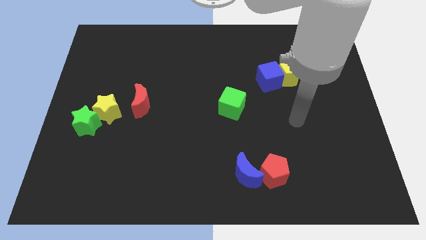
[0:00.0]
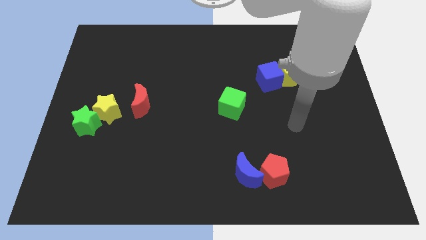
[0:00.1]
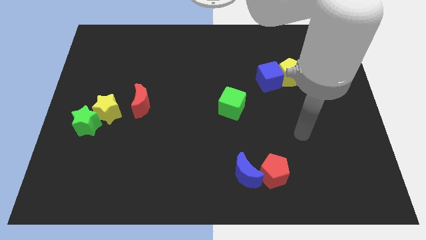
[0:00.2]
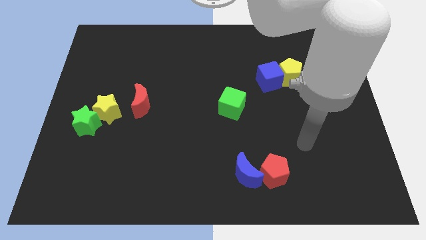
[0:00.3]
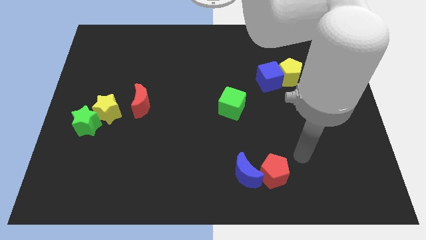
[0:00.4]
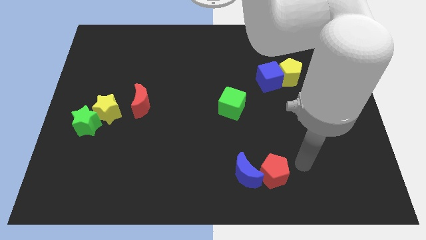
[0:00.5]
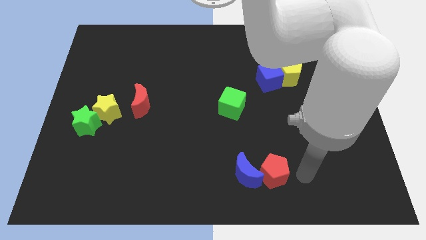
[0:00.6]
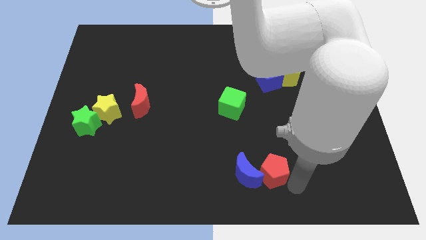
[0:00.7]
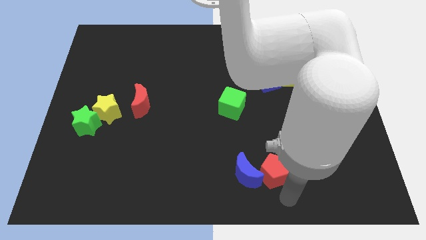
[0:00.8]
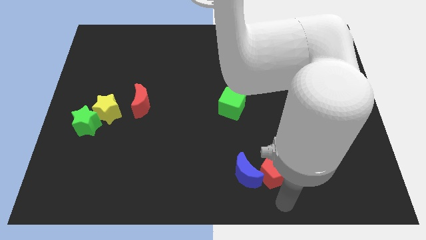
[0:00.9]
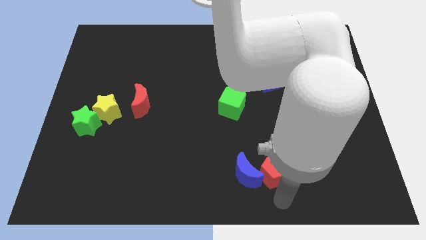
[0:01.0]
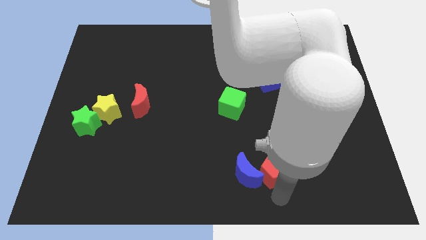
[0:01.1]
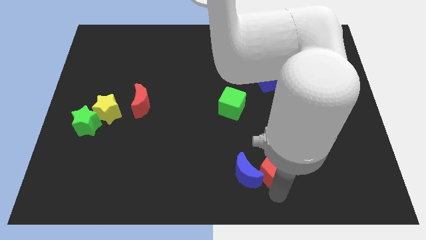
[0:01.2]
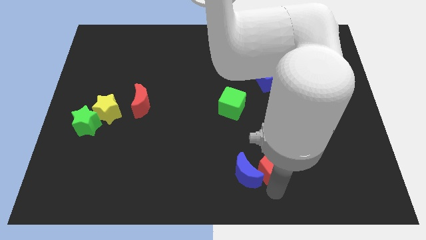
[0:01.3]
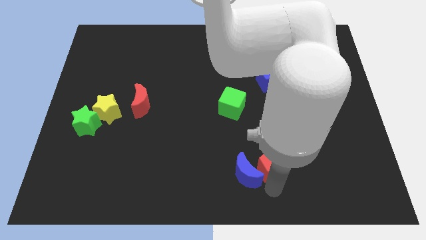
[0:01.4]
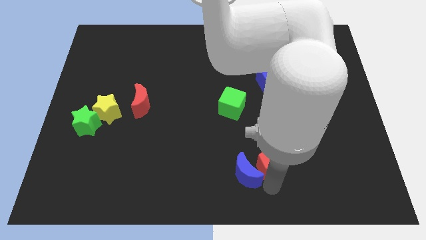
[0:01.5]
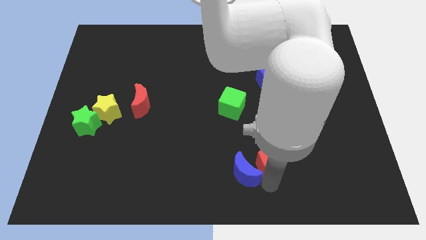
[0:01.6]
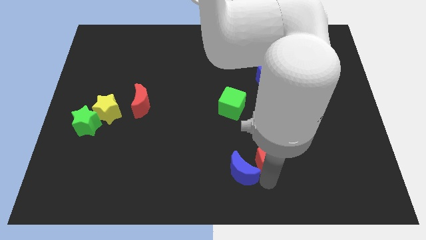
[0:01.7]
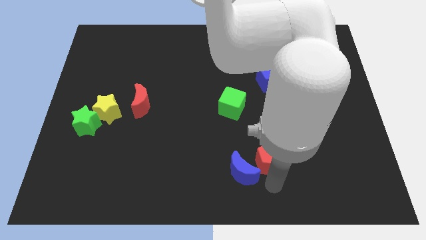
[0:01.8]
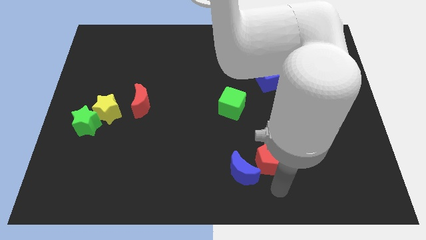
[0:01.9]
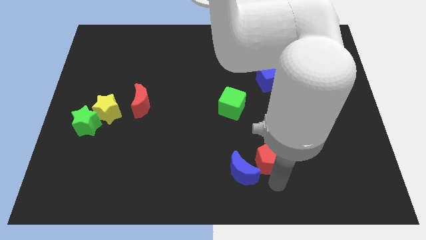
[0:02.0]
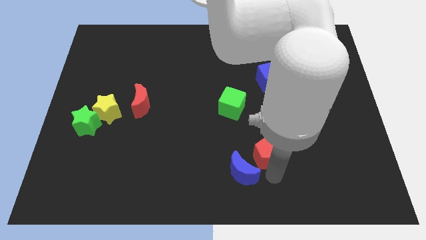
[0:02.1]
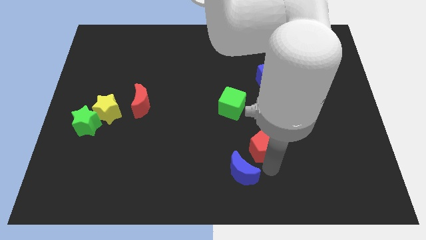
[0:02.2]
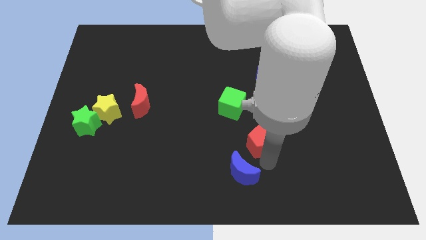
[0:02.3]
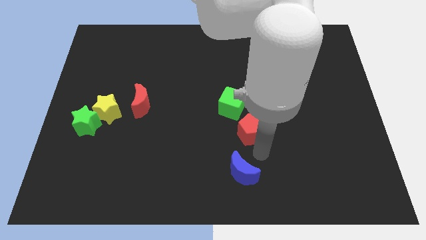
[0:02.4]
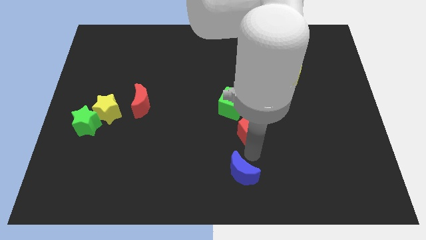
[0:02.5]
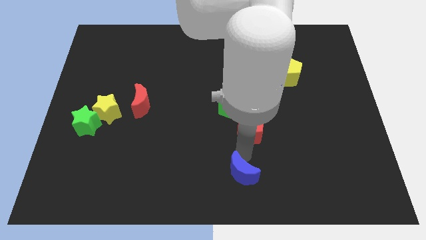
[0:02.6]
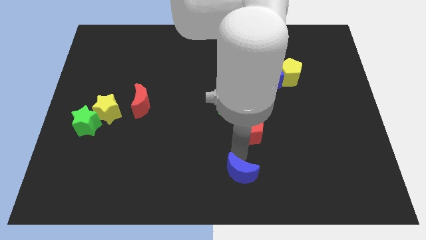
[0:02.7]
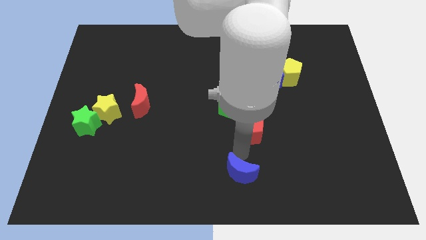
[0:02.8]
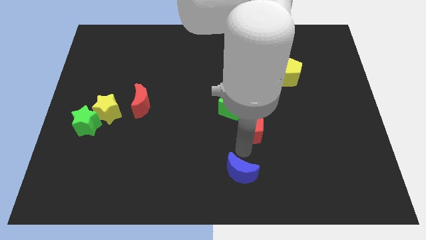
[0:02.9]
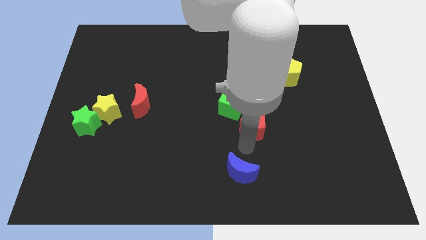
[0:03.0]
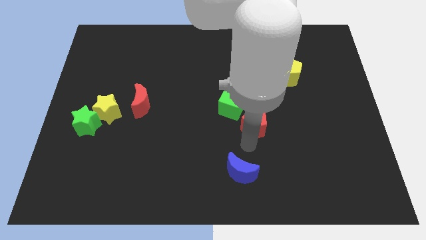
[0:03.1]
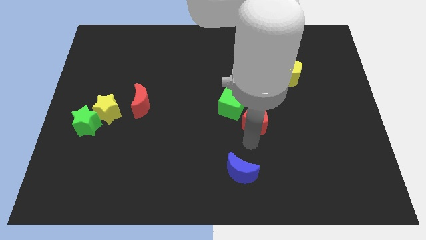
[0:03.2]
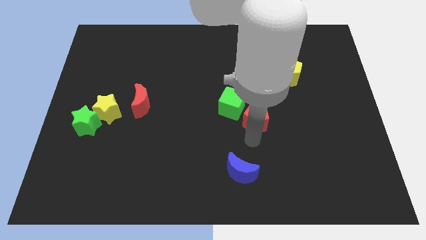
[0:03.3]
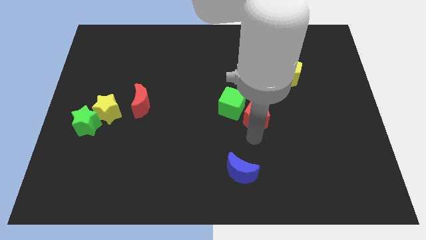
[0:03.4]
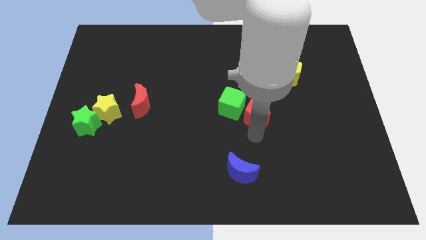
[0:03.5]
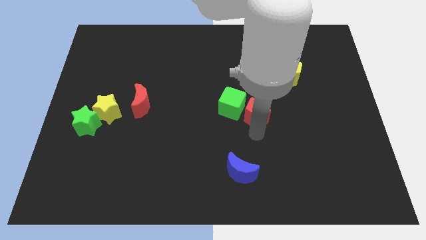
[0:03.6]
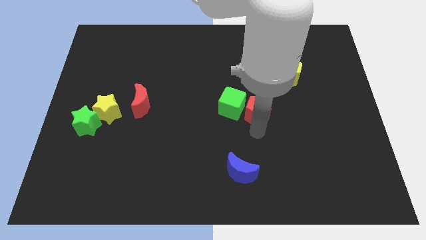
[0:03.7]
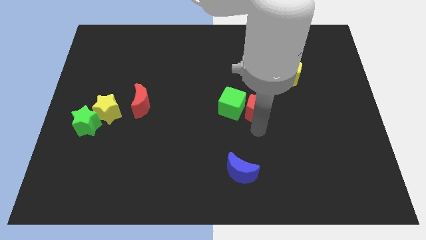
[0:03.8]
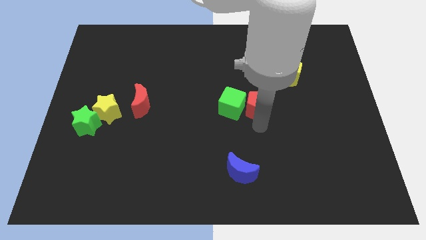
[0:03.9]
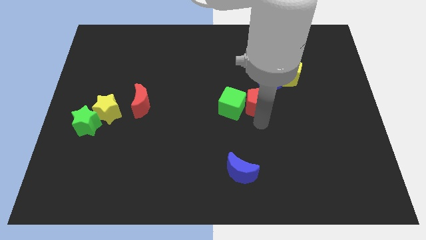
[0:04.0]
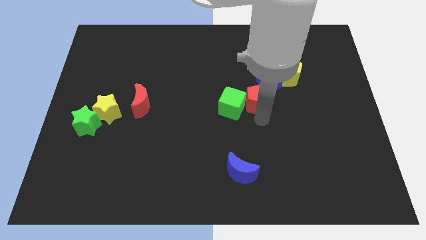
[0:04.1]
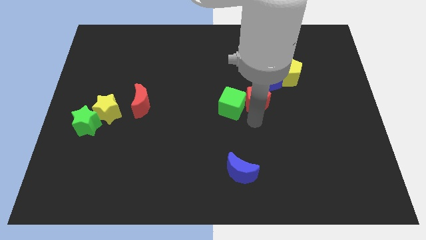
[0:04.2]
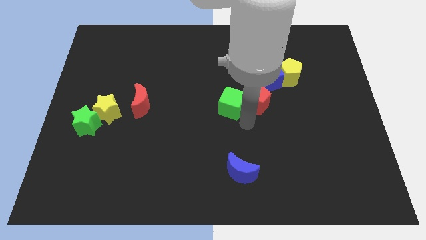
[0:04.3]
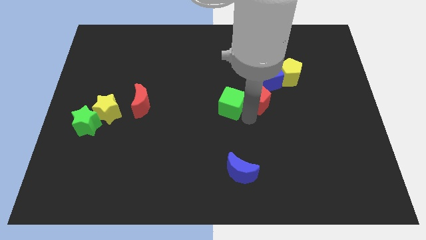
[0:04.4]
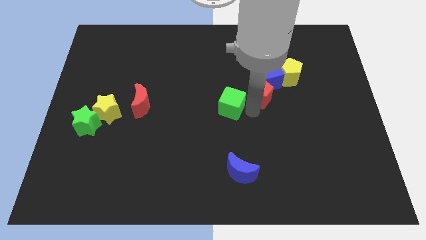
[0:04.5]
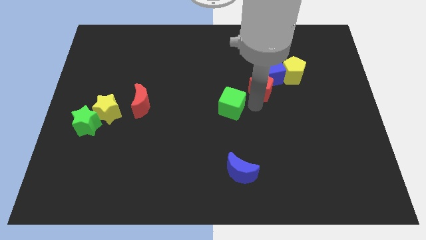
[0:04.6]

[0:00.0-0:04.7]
move the red pentagon to the blue cube

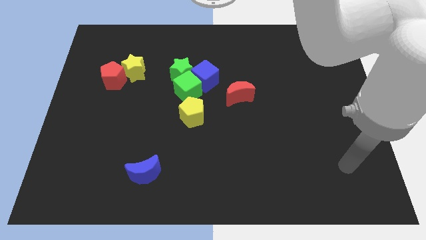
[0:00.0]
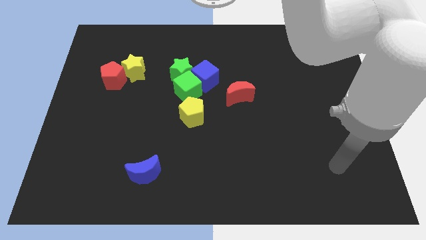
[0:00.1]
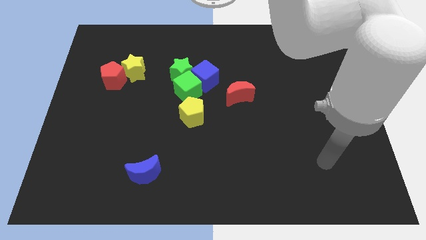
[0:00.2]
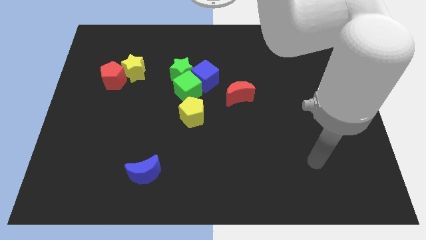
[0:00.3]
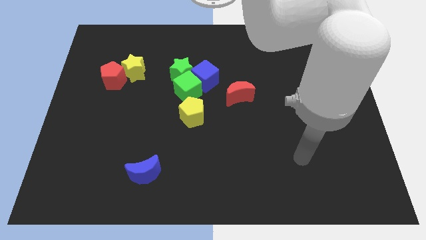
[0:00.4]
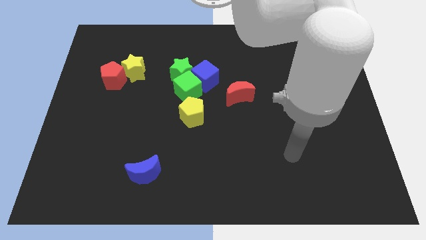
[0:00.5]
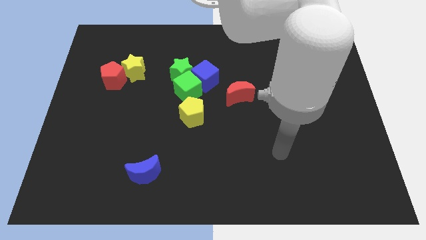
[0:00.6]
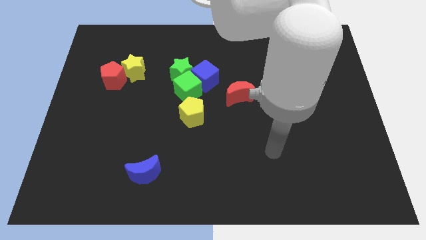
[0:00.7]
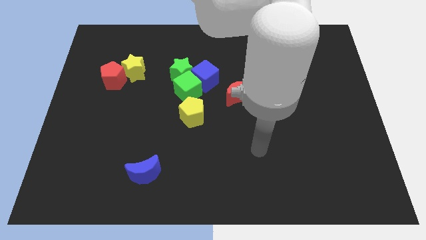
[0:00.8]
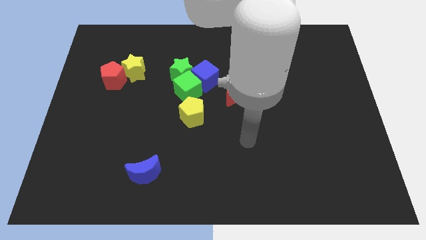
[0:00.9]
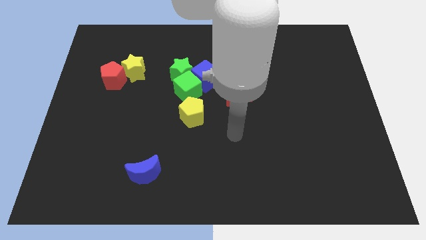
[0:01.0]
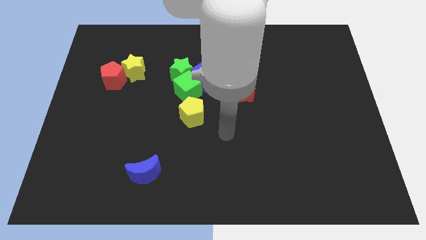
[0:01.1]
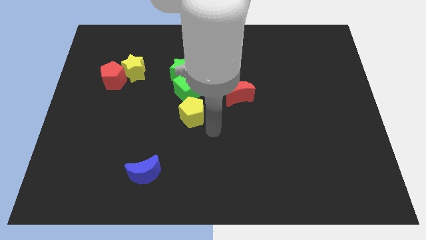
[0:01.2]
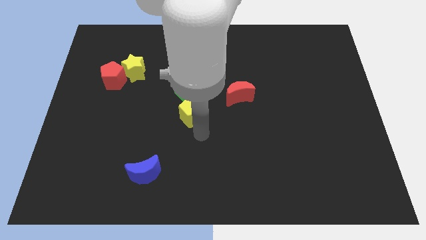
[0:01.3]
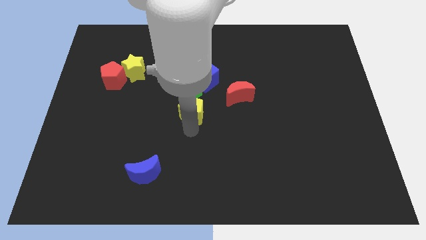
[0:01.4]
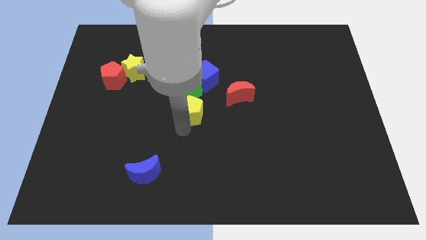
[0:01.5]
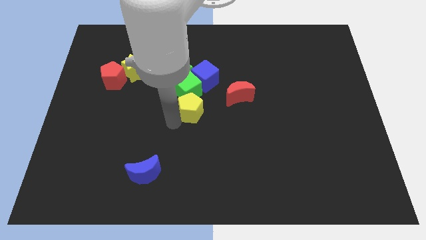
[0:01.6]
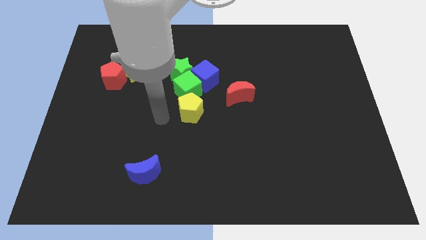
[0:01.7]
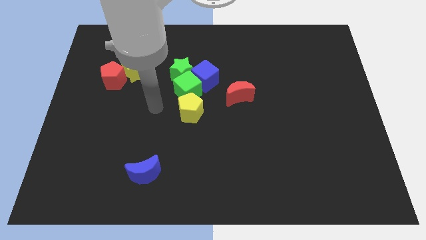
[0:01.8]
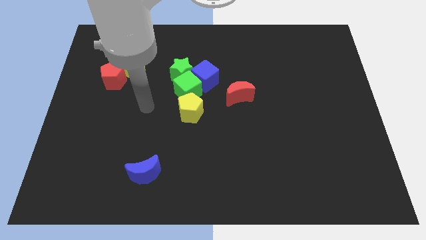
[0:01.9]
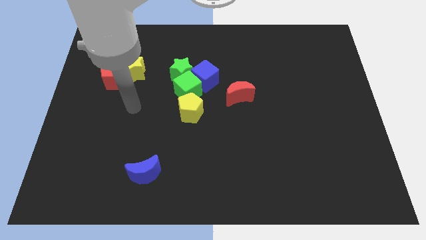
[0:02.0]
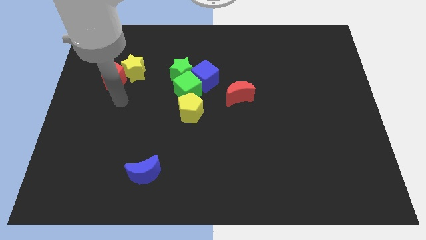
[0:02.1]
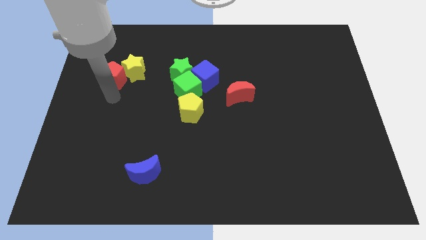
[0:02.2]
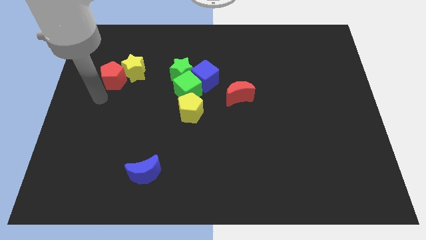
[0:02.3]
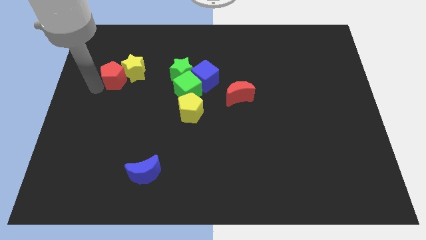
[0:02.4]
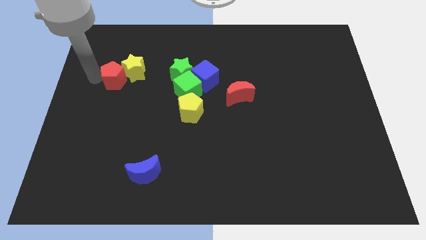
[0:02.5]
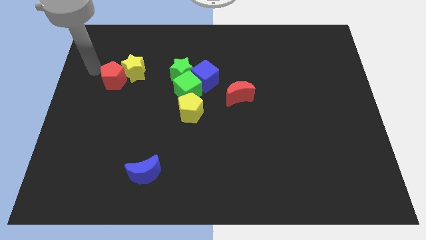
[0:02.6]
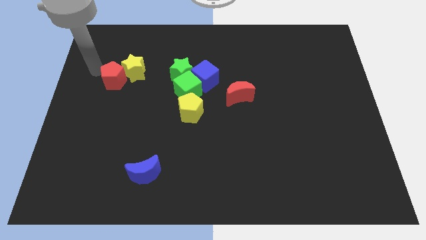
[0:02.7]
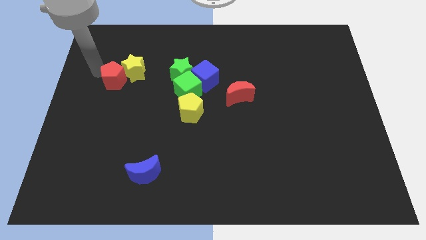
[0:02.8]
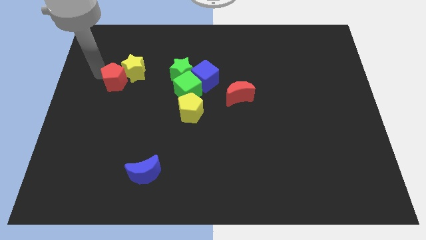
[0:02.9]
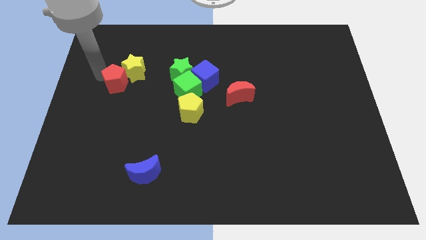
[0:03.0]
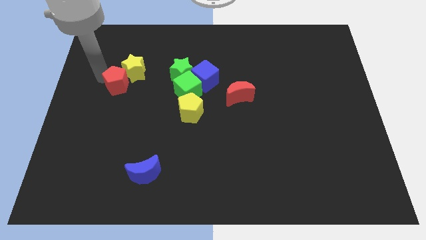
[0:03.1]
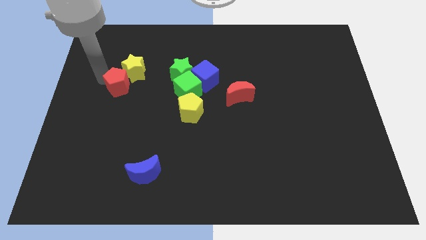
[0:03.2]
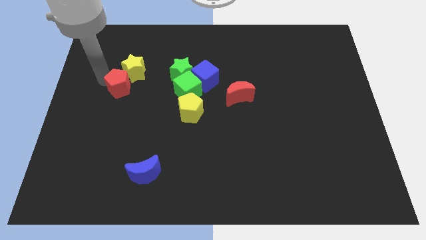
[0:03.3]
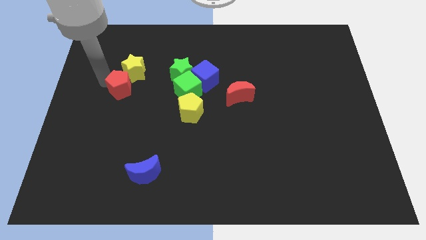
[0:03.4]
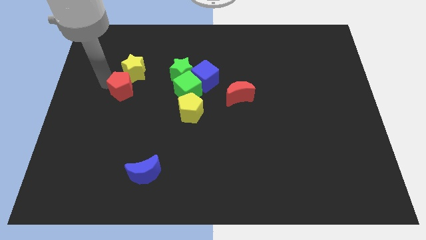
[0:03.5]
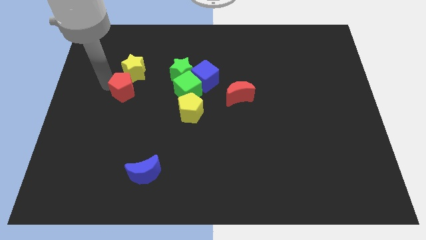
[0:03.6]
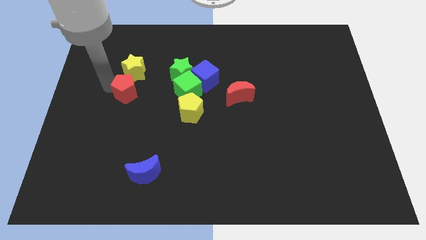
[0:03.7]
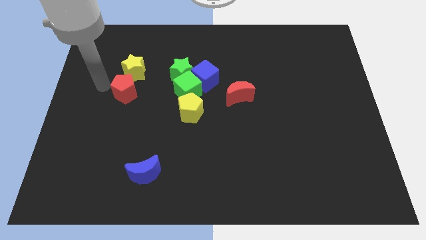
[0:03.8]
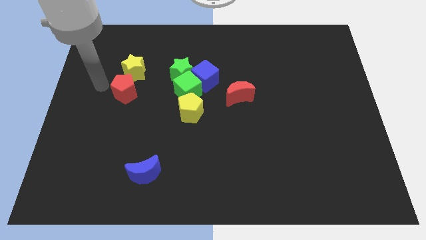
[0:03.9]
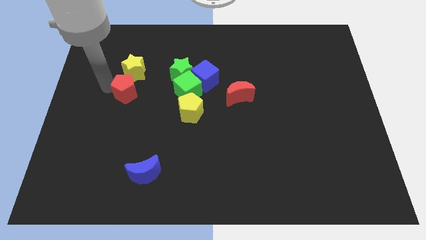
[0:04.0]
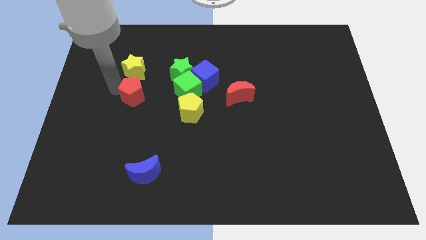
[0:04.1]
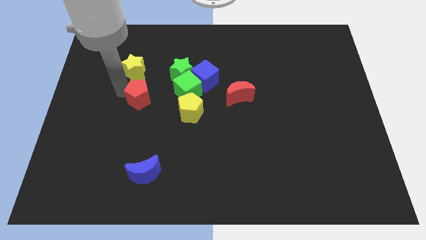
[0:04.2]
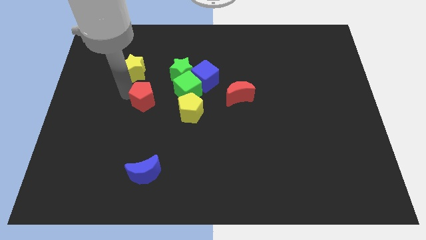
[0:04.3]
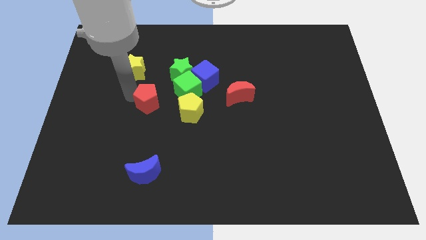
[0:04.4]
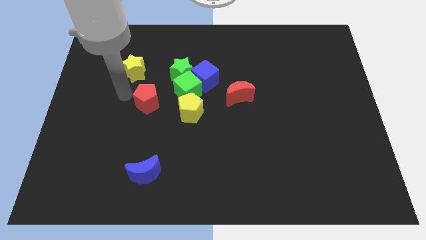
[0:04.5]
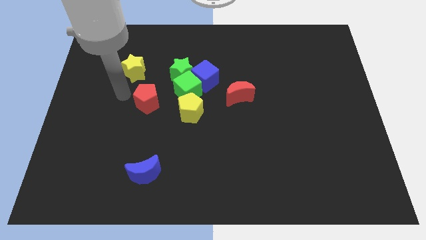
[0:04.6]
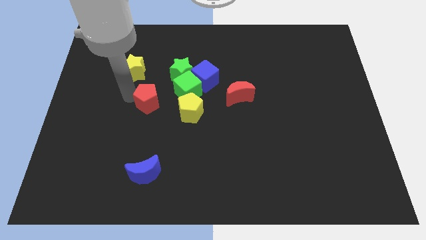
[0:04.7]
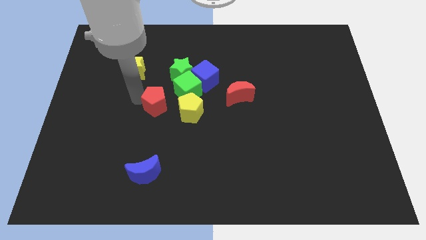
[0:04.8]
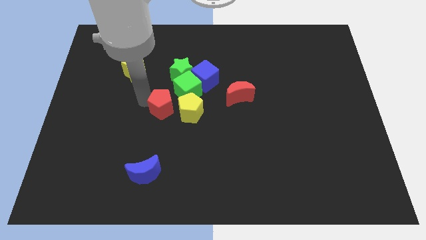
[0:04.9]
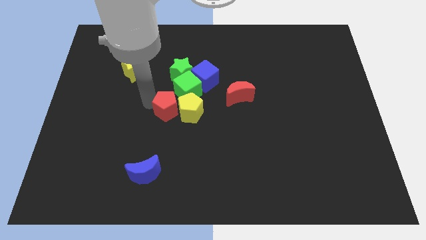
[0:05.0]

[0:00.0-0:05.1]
move the red pentagon close to the yellow pentagon
